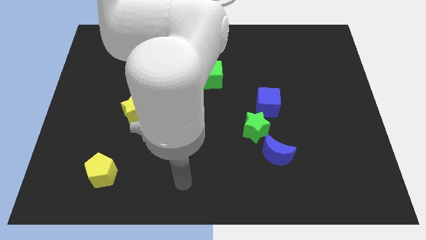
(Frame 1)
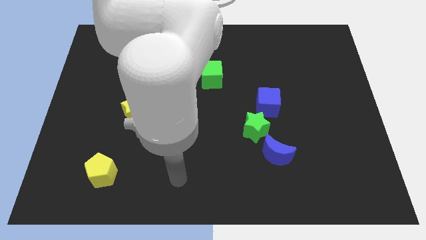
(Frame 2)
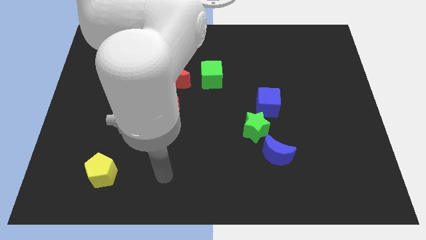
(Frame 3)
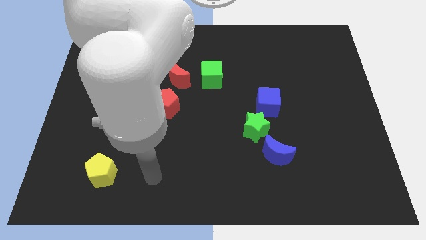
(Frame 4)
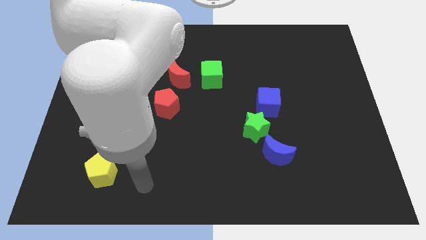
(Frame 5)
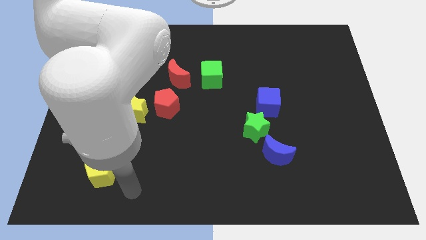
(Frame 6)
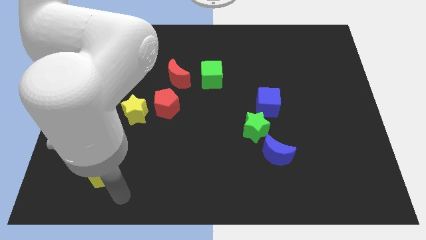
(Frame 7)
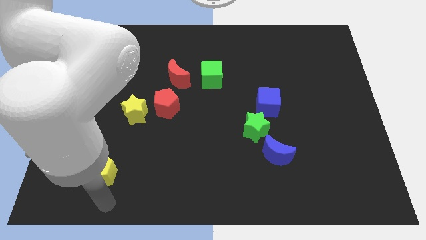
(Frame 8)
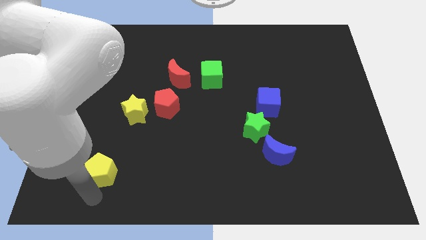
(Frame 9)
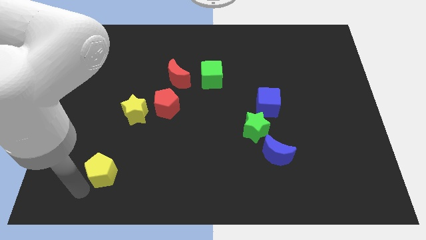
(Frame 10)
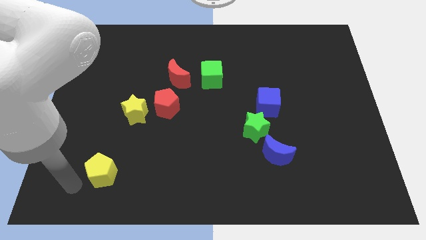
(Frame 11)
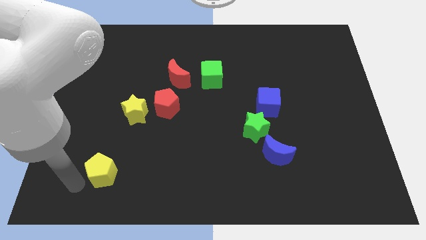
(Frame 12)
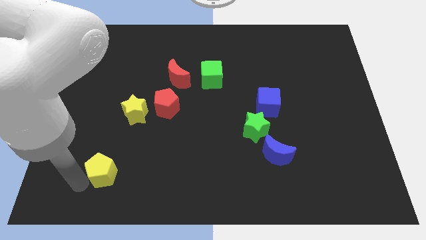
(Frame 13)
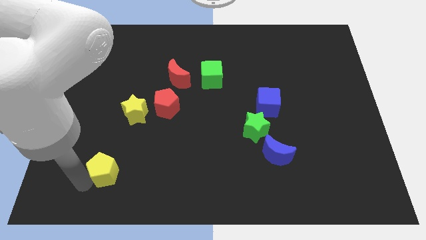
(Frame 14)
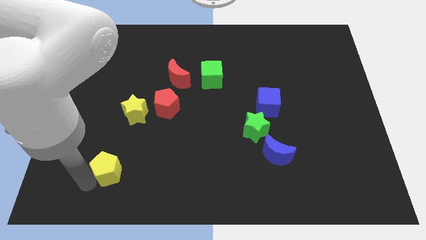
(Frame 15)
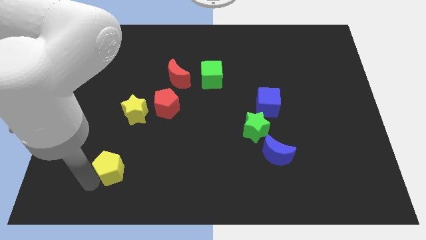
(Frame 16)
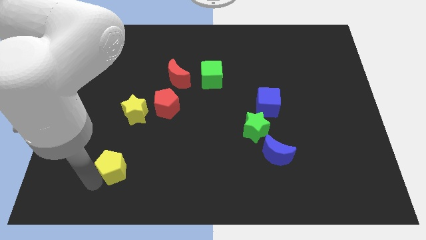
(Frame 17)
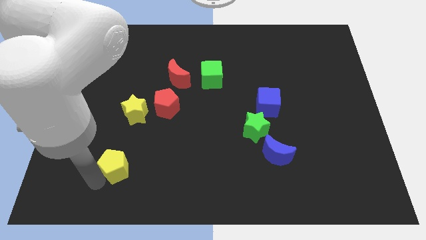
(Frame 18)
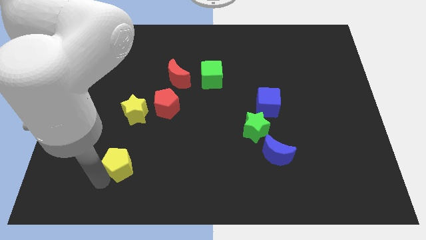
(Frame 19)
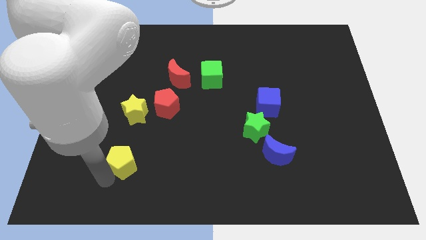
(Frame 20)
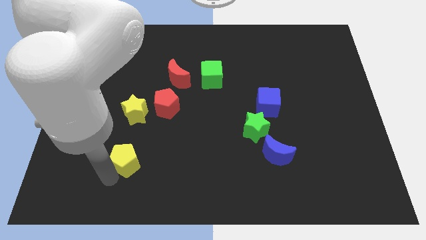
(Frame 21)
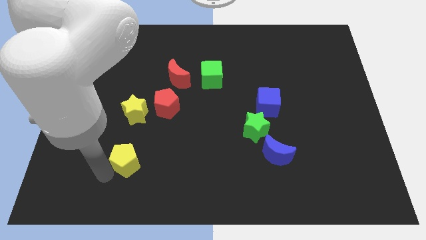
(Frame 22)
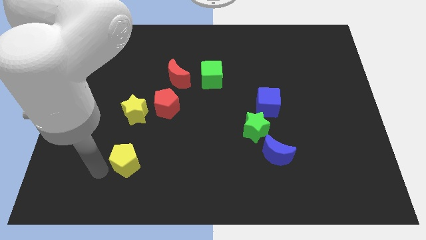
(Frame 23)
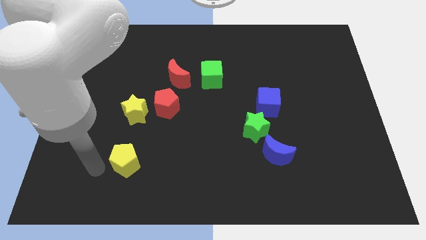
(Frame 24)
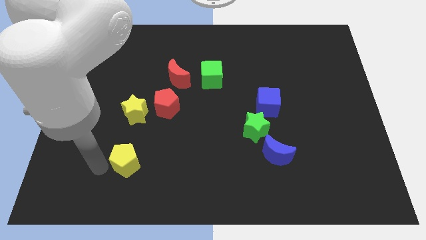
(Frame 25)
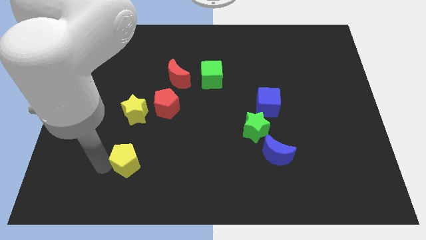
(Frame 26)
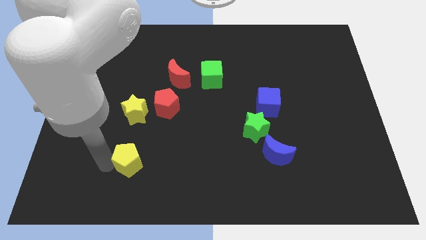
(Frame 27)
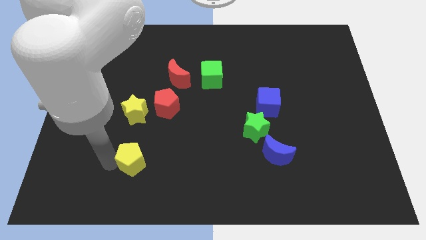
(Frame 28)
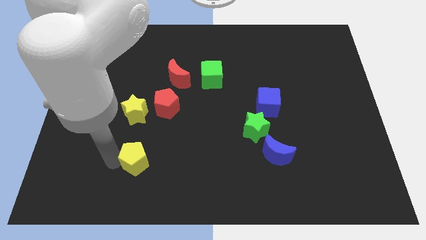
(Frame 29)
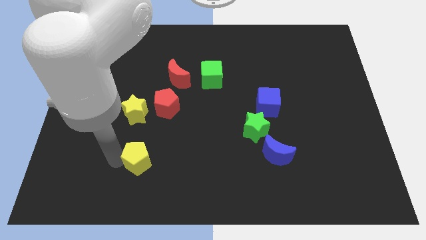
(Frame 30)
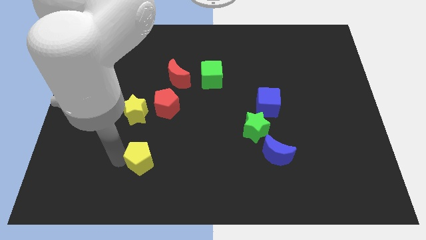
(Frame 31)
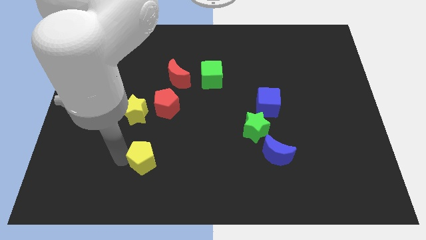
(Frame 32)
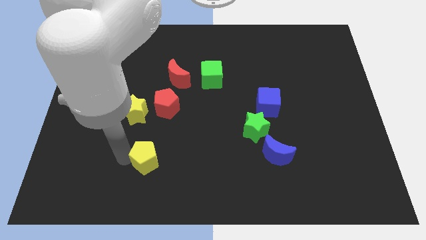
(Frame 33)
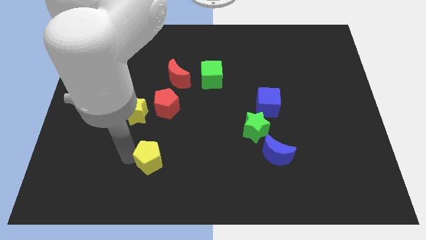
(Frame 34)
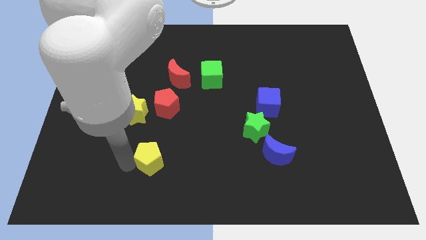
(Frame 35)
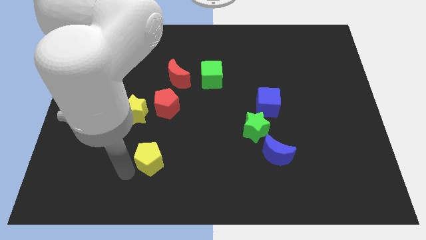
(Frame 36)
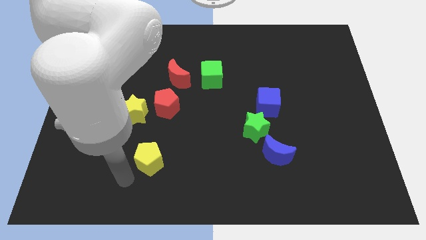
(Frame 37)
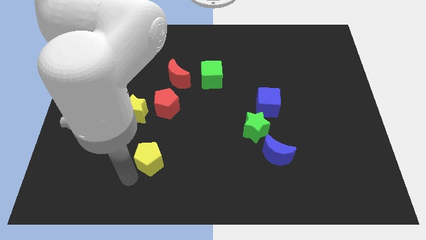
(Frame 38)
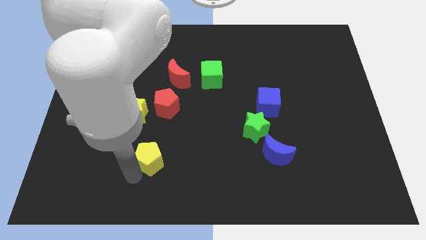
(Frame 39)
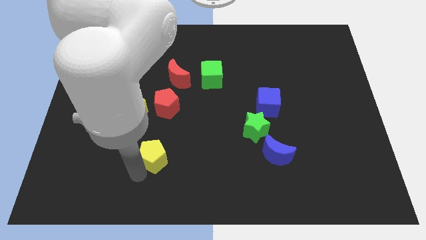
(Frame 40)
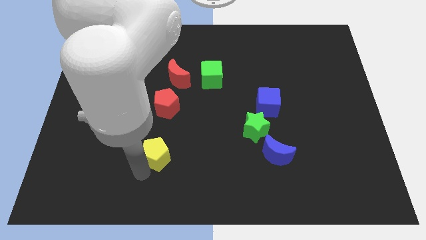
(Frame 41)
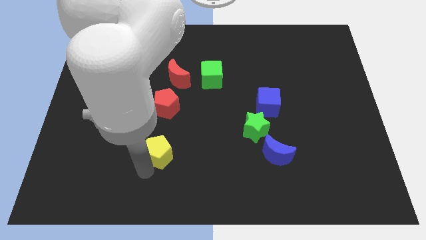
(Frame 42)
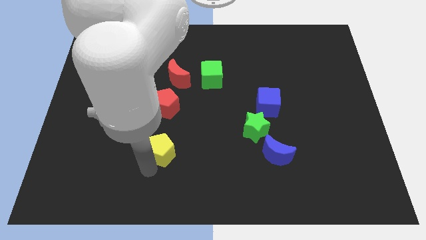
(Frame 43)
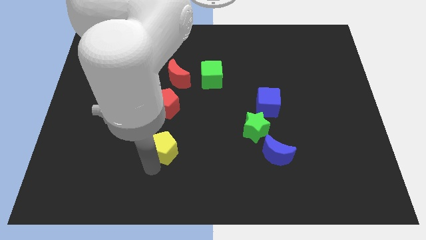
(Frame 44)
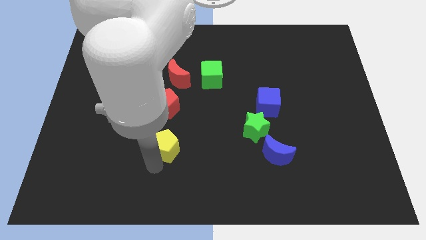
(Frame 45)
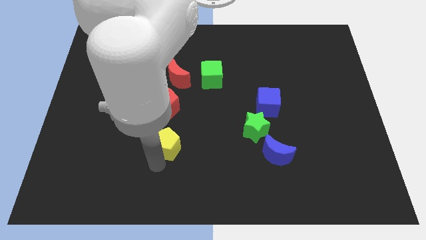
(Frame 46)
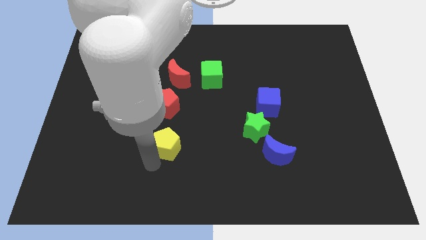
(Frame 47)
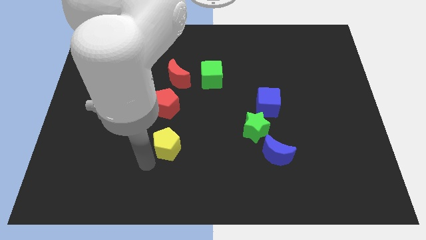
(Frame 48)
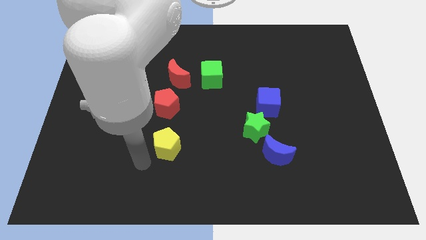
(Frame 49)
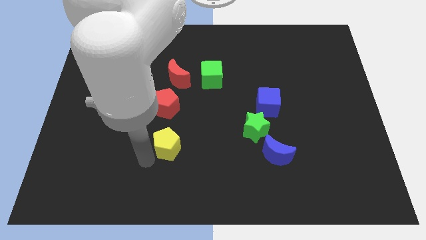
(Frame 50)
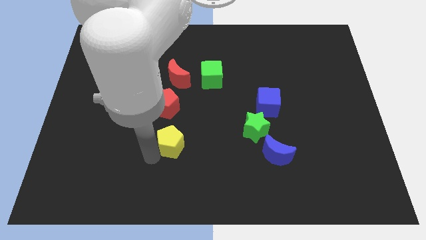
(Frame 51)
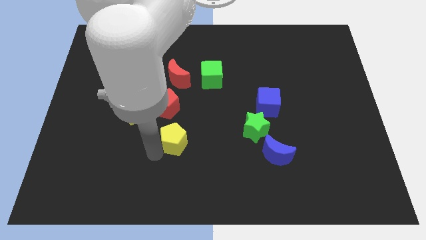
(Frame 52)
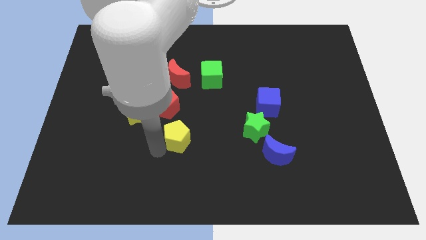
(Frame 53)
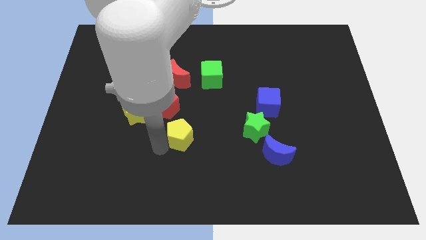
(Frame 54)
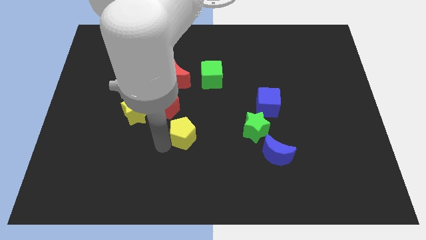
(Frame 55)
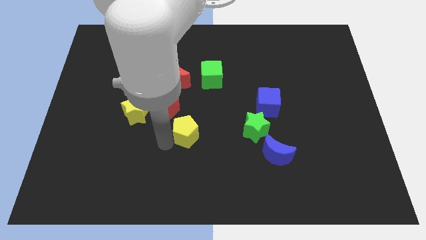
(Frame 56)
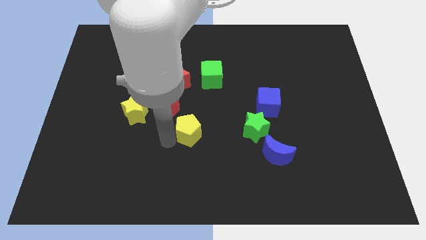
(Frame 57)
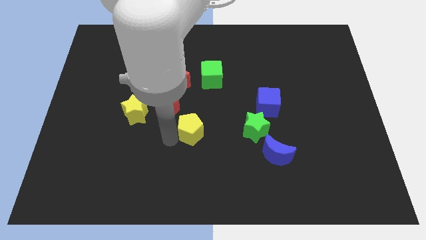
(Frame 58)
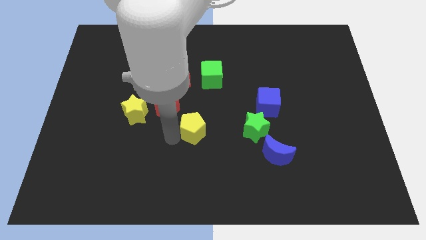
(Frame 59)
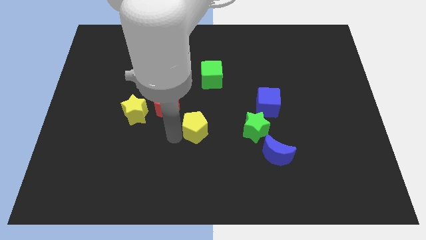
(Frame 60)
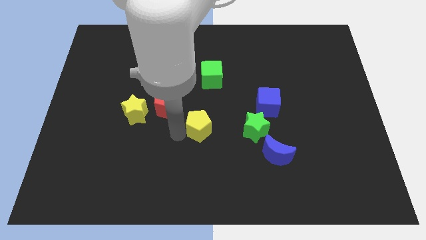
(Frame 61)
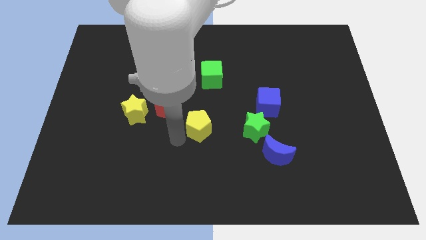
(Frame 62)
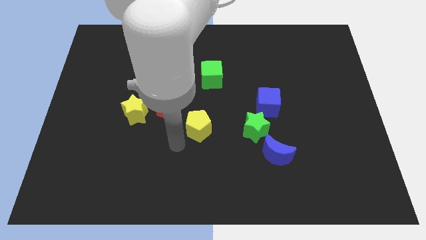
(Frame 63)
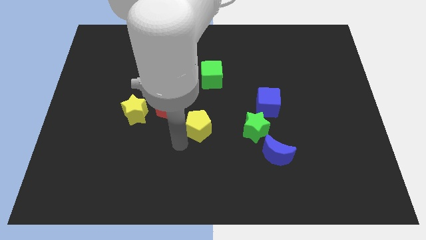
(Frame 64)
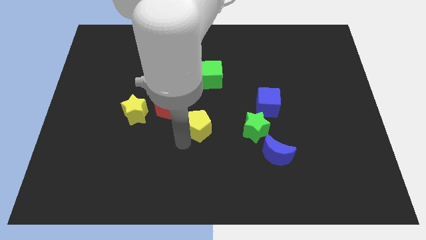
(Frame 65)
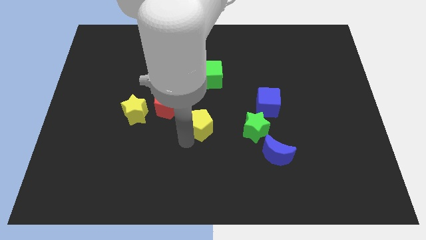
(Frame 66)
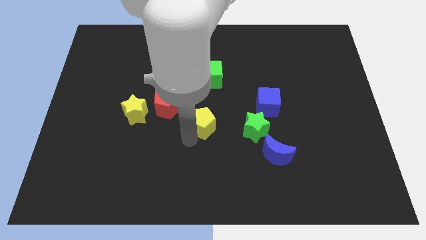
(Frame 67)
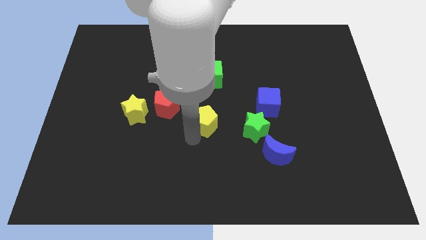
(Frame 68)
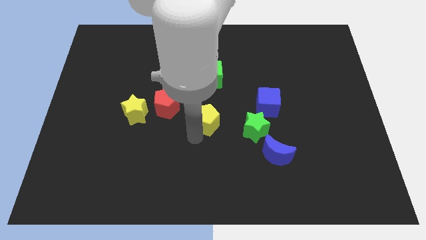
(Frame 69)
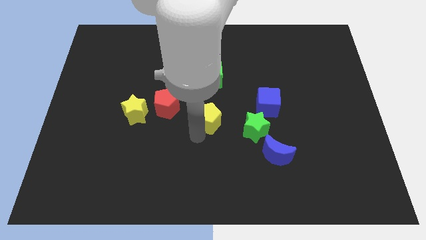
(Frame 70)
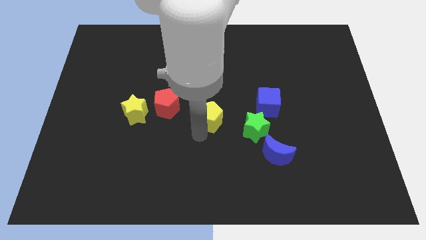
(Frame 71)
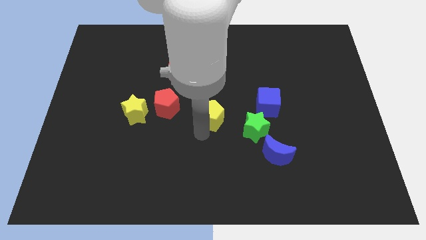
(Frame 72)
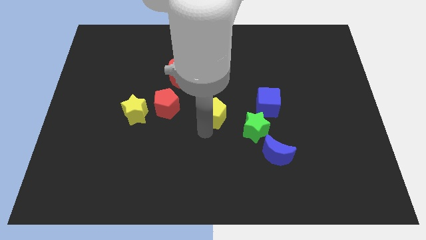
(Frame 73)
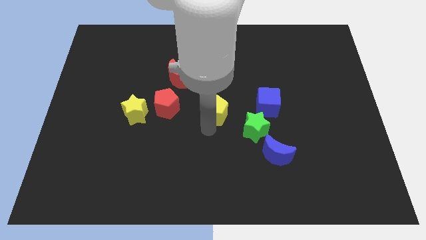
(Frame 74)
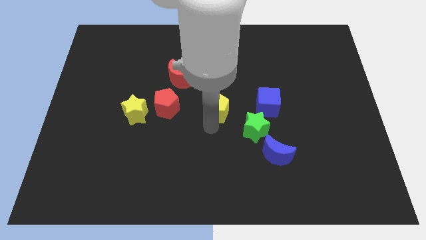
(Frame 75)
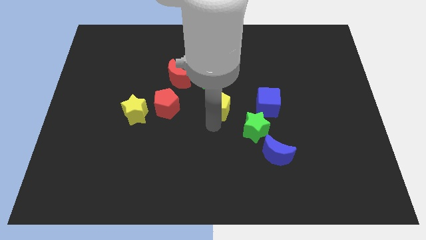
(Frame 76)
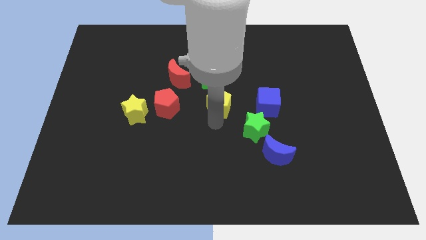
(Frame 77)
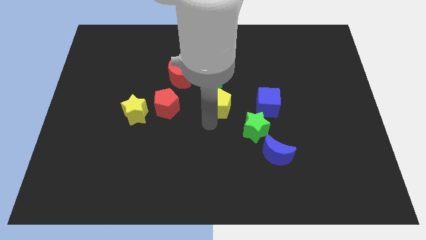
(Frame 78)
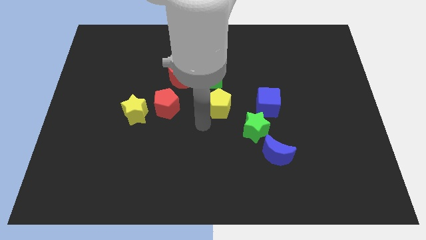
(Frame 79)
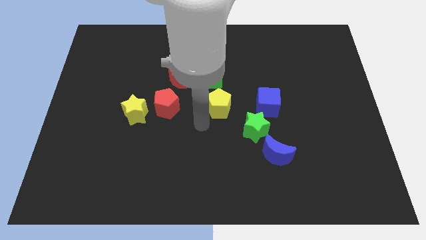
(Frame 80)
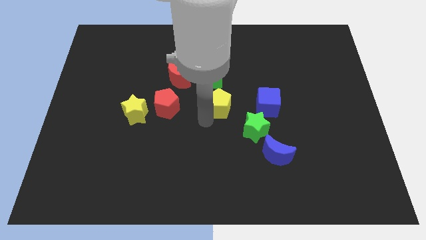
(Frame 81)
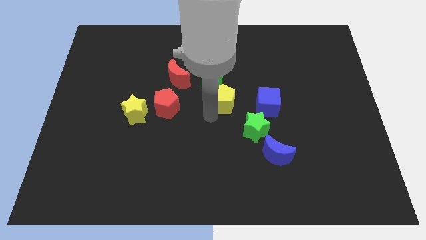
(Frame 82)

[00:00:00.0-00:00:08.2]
push the yellow pentagon diagonally down and to the right of the green cube
